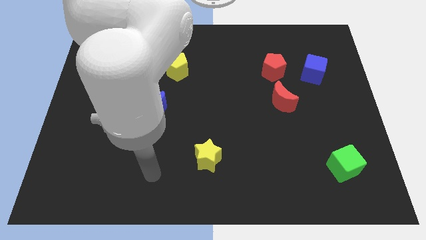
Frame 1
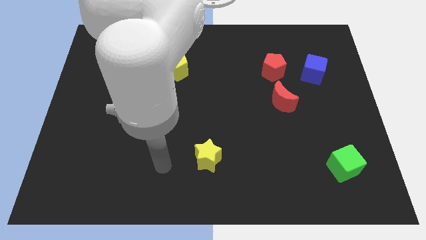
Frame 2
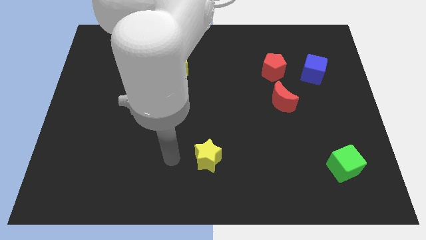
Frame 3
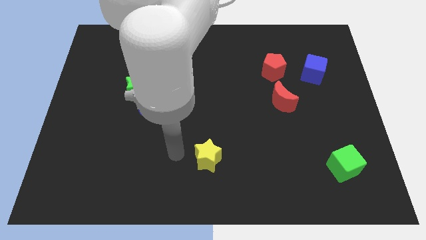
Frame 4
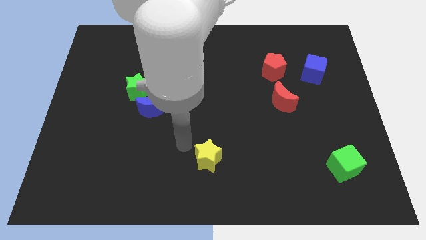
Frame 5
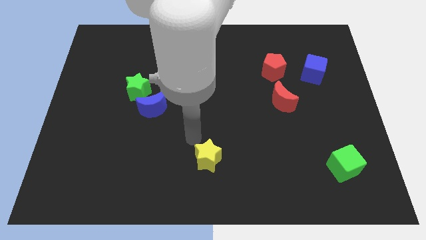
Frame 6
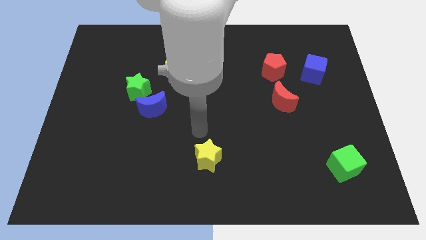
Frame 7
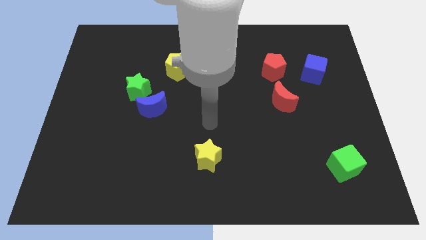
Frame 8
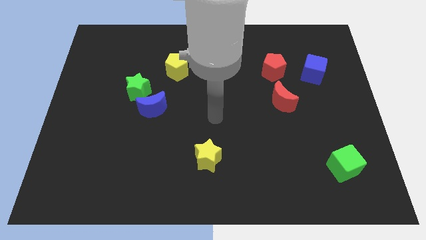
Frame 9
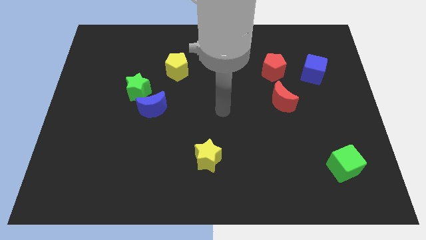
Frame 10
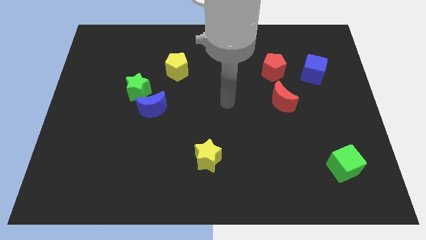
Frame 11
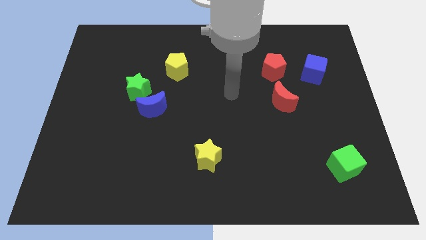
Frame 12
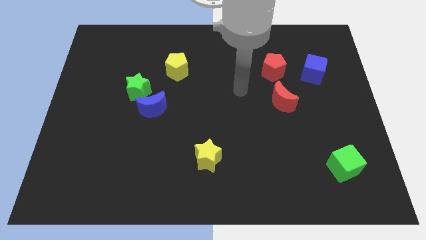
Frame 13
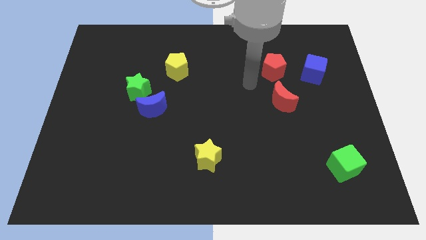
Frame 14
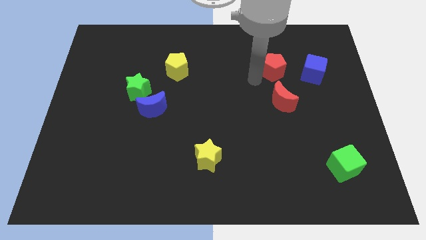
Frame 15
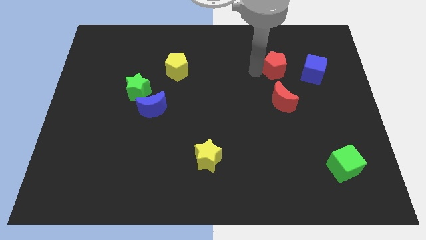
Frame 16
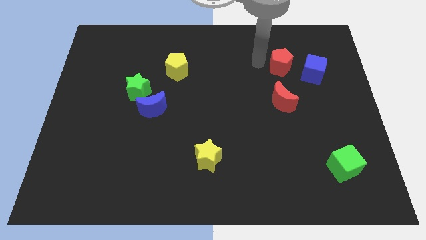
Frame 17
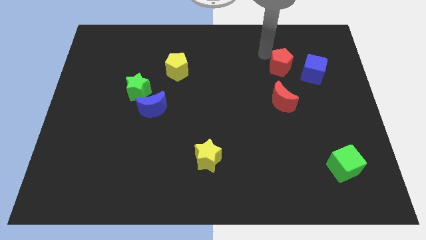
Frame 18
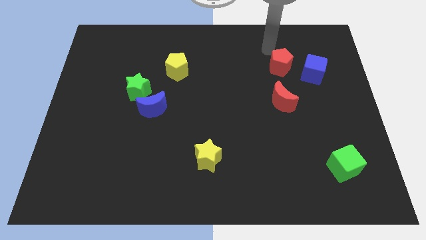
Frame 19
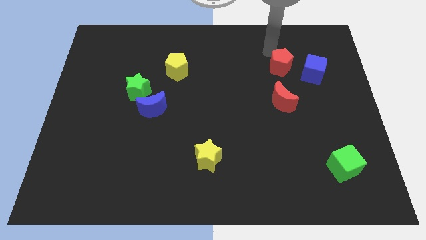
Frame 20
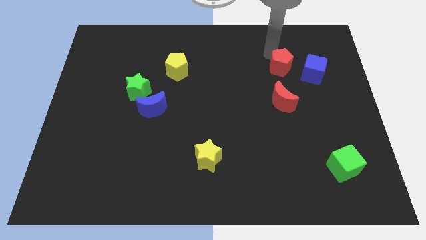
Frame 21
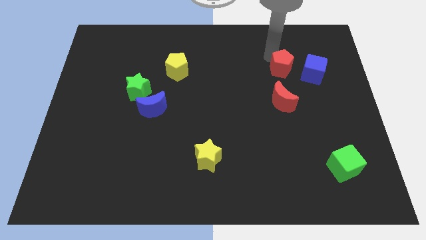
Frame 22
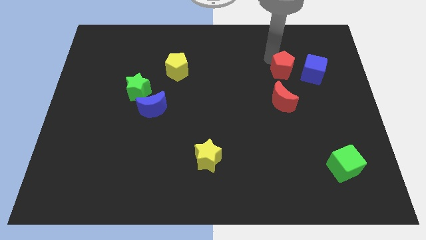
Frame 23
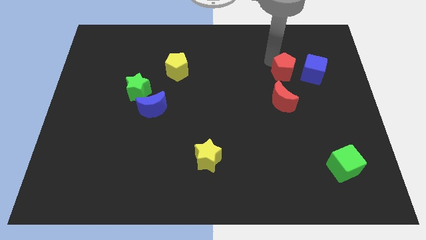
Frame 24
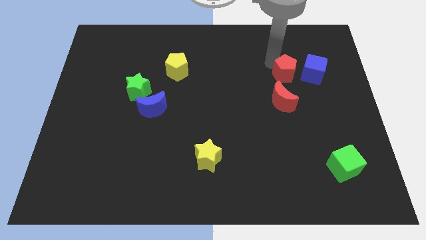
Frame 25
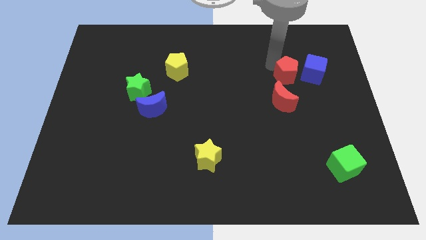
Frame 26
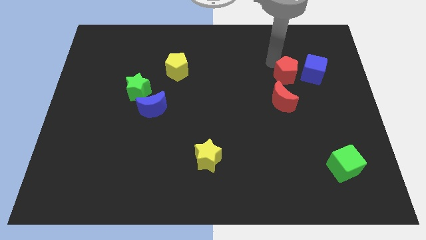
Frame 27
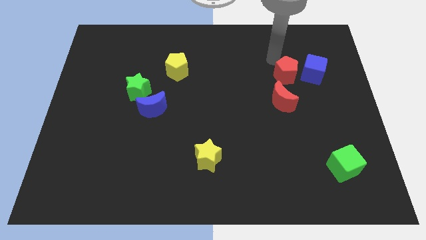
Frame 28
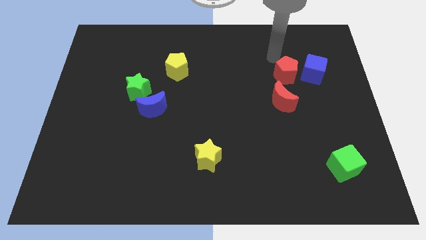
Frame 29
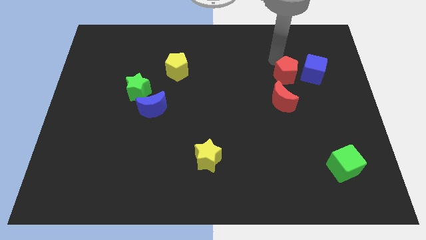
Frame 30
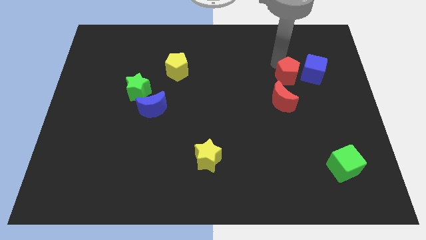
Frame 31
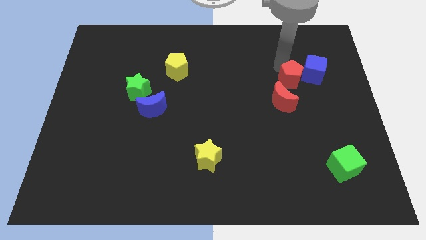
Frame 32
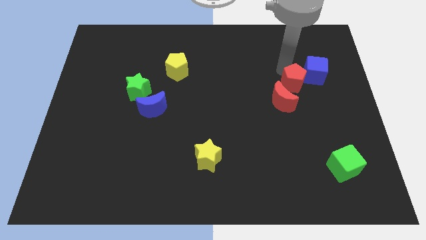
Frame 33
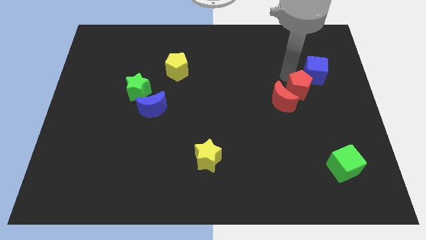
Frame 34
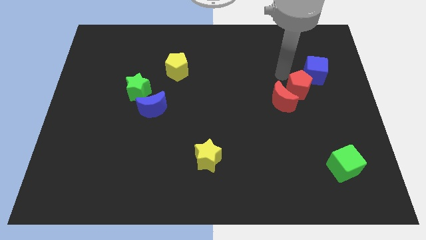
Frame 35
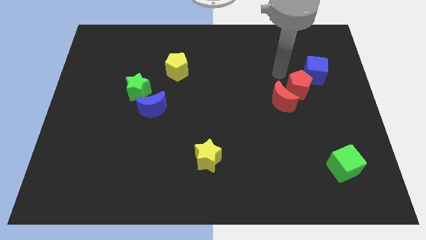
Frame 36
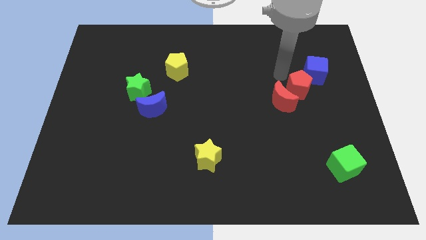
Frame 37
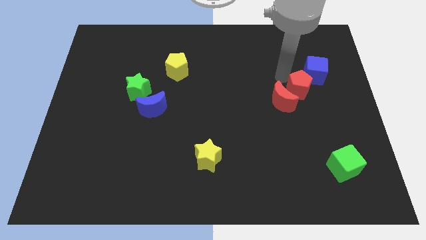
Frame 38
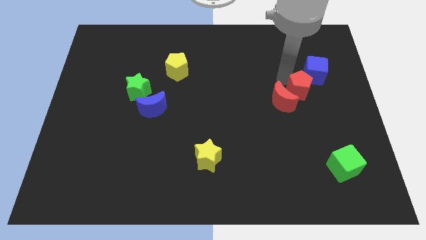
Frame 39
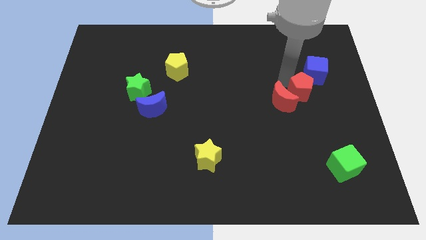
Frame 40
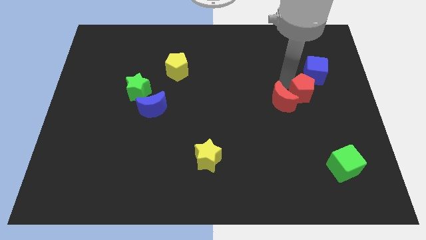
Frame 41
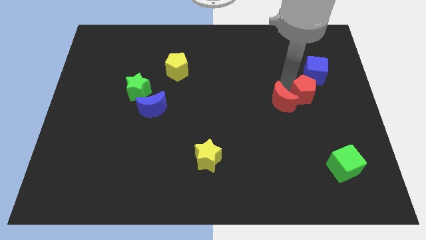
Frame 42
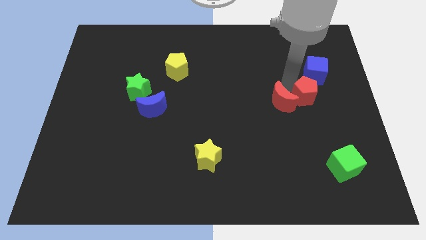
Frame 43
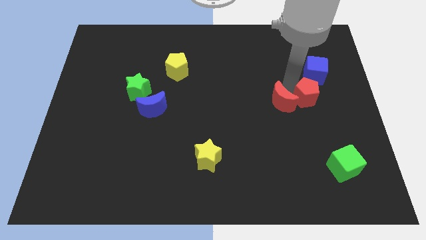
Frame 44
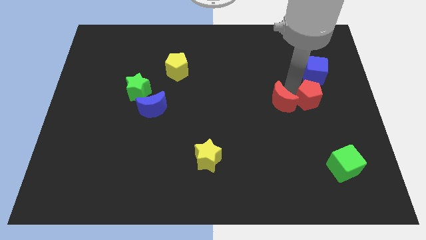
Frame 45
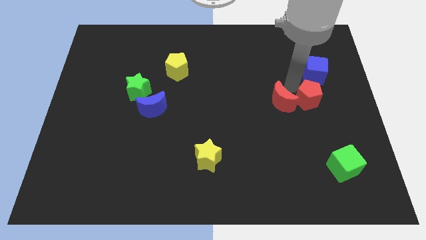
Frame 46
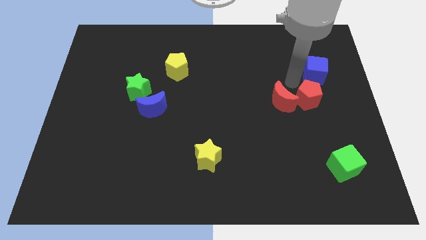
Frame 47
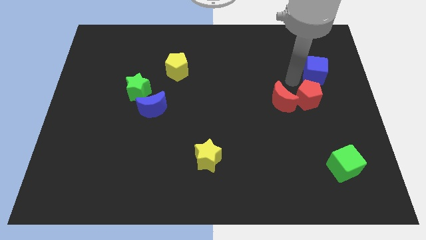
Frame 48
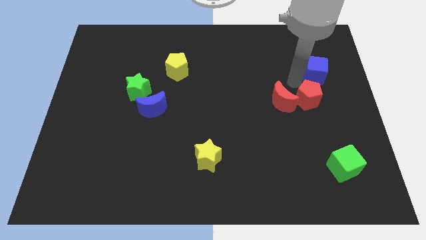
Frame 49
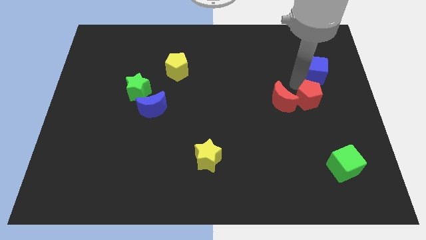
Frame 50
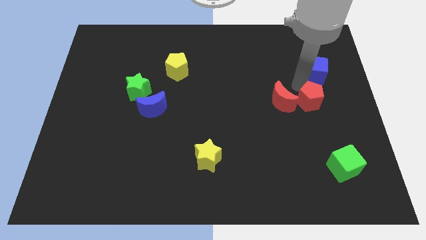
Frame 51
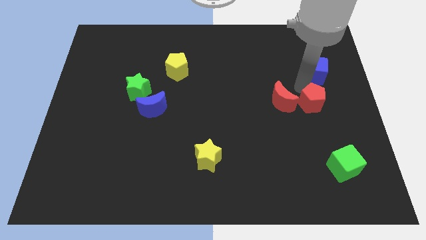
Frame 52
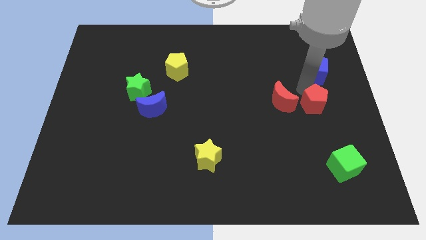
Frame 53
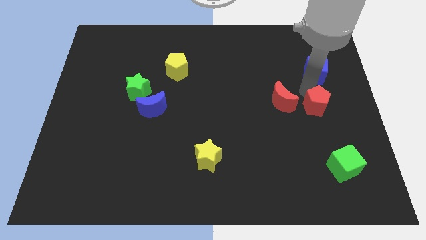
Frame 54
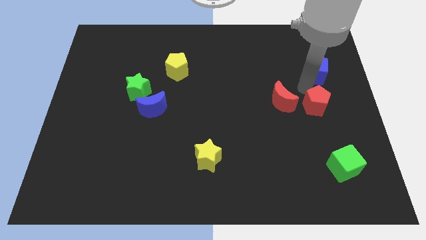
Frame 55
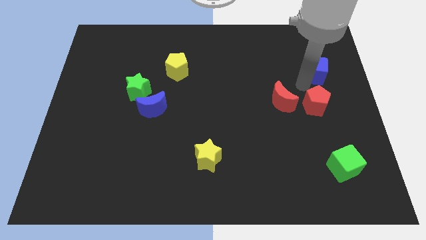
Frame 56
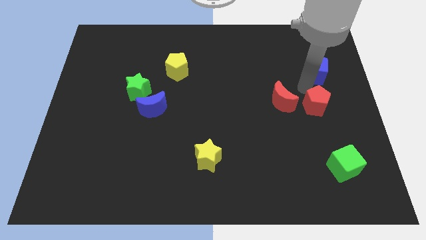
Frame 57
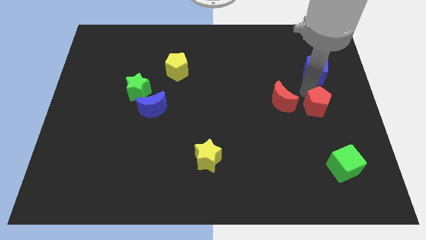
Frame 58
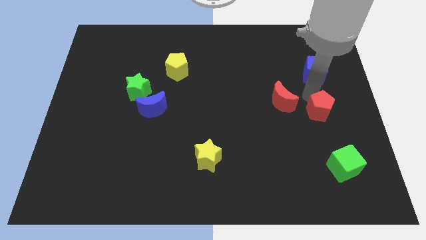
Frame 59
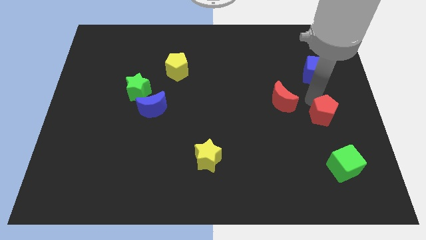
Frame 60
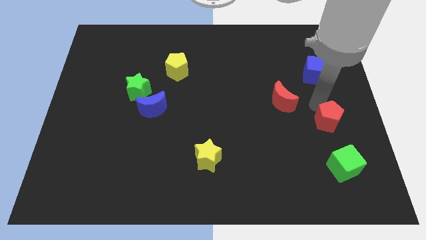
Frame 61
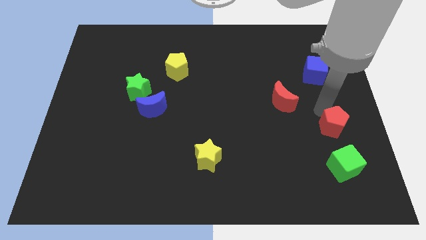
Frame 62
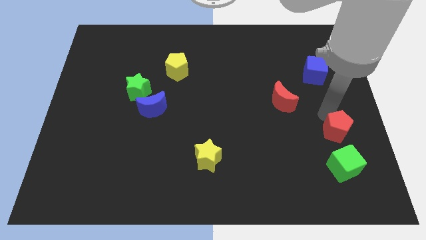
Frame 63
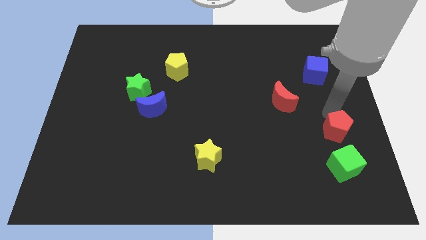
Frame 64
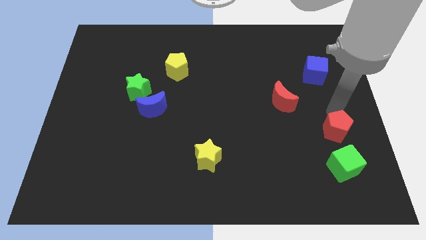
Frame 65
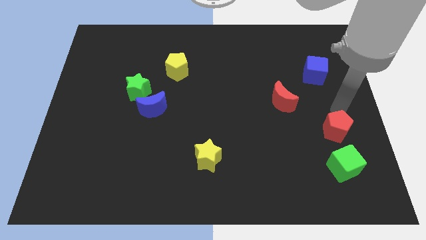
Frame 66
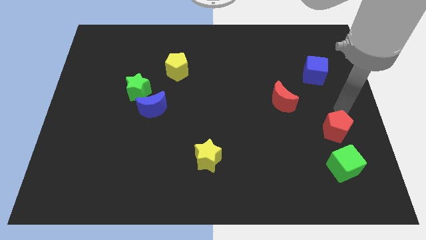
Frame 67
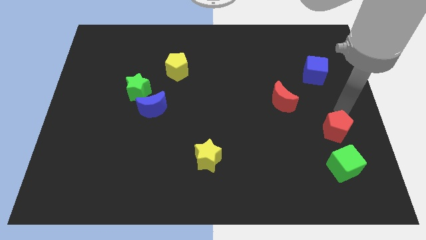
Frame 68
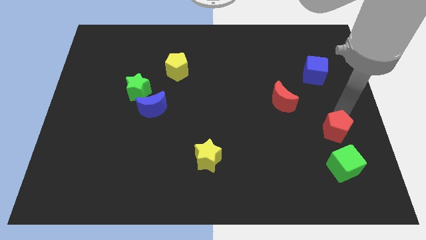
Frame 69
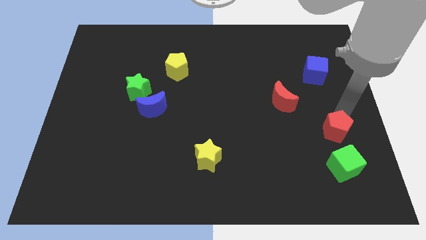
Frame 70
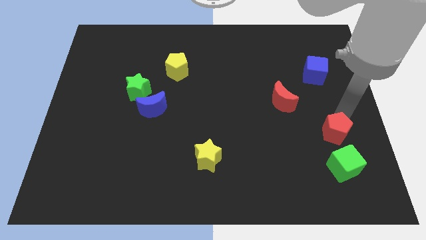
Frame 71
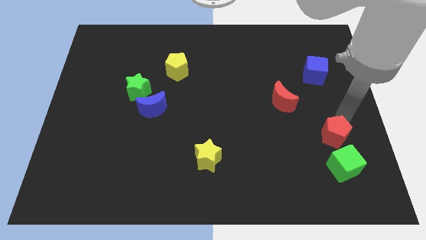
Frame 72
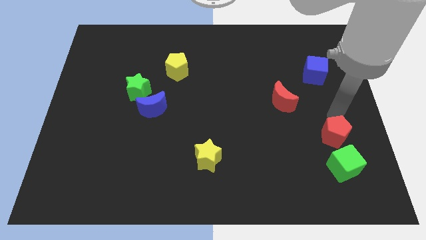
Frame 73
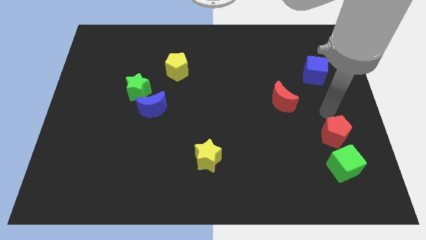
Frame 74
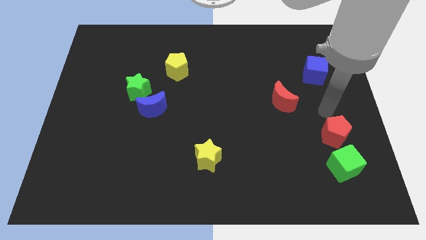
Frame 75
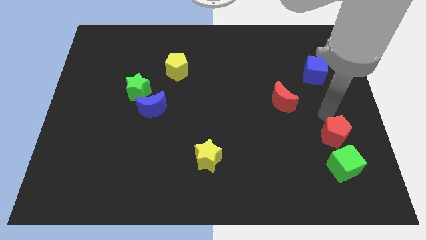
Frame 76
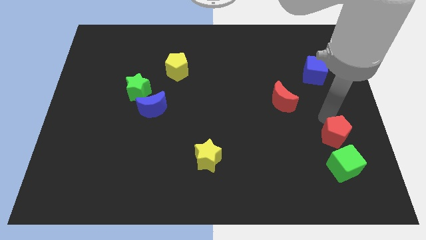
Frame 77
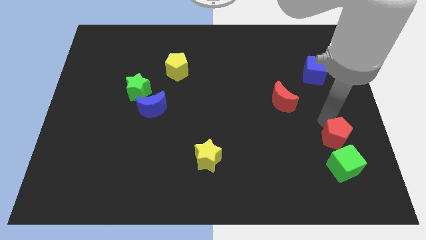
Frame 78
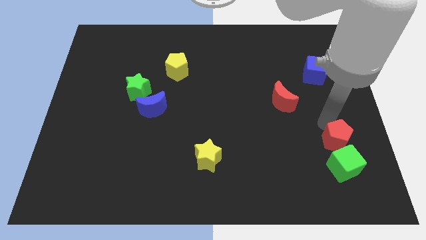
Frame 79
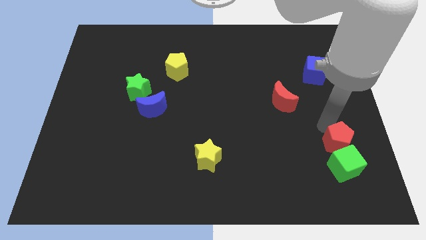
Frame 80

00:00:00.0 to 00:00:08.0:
put the red pentagon next to the green cube
